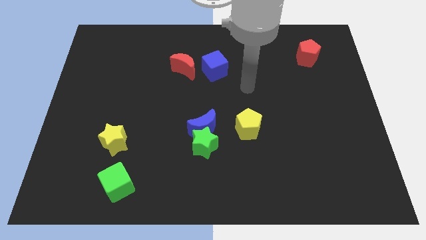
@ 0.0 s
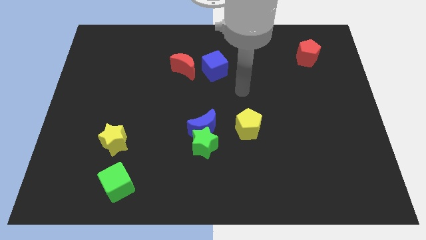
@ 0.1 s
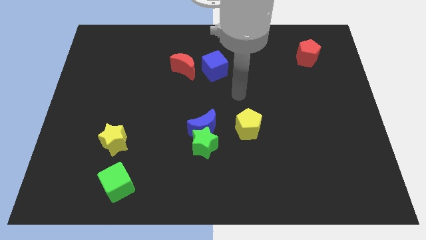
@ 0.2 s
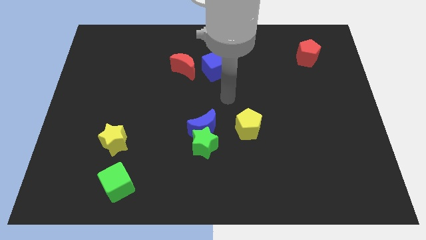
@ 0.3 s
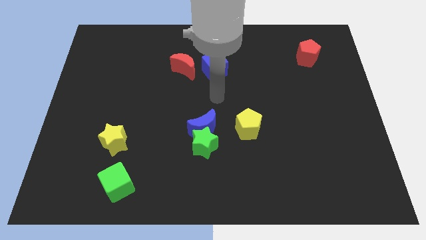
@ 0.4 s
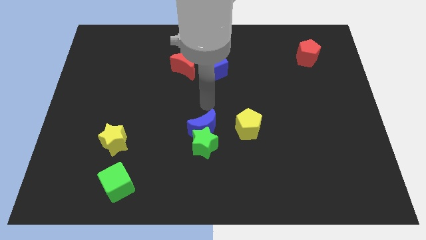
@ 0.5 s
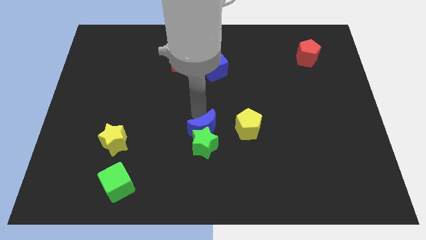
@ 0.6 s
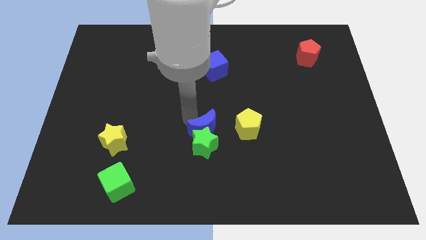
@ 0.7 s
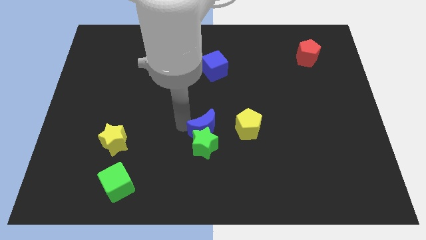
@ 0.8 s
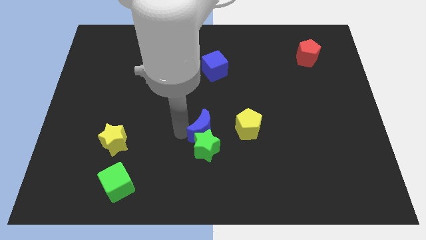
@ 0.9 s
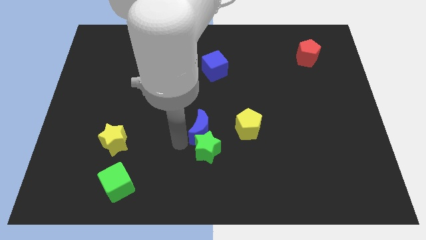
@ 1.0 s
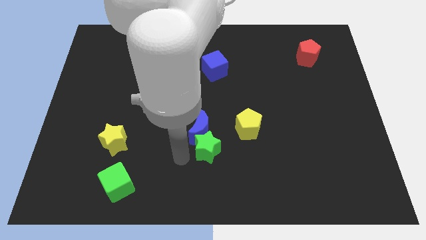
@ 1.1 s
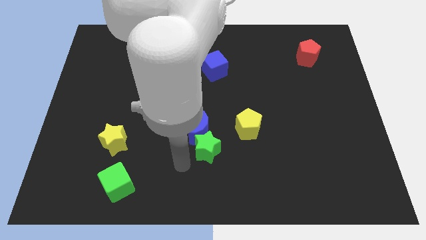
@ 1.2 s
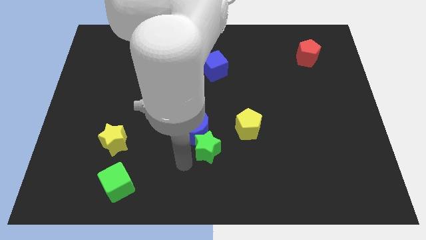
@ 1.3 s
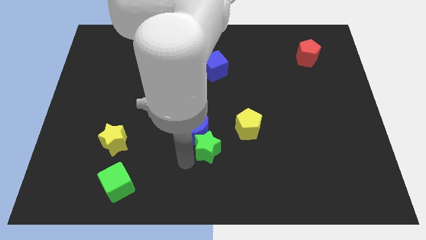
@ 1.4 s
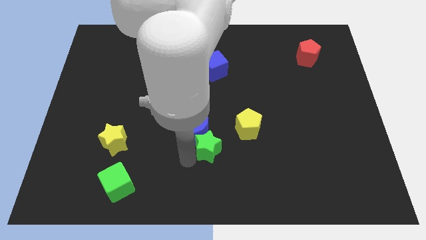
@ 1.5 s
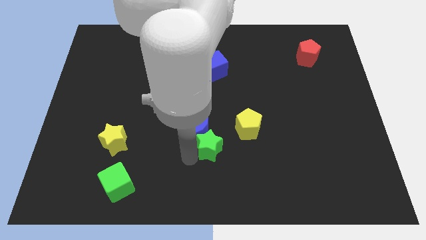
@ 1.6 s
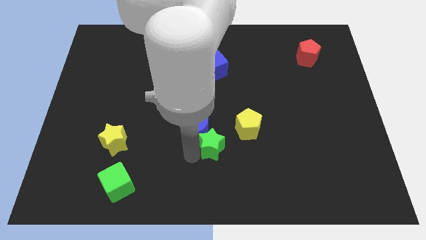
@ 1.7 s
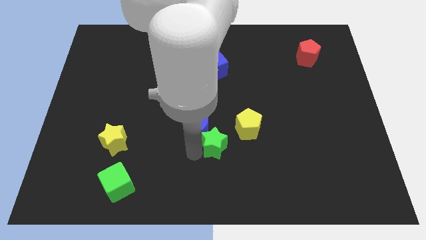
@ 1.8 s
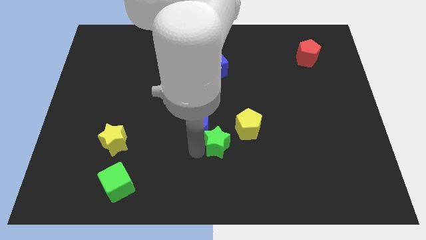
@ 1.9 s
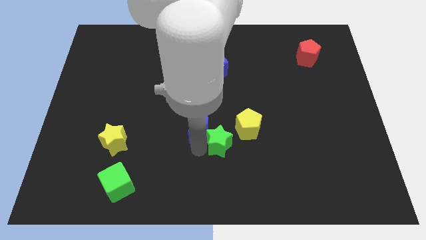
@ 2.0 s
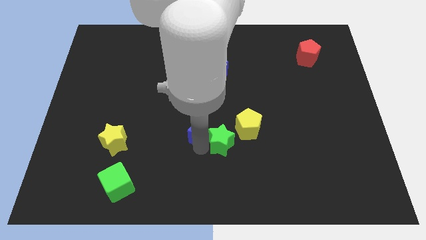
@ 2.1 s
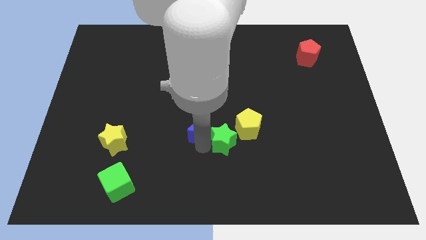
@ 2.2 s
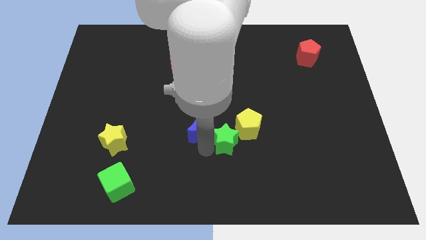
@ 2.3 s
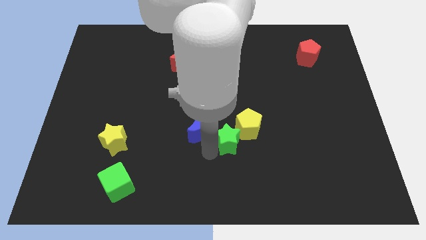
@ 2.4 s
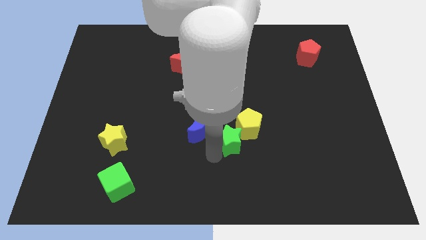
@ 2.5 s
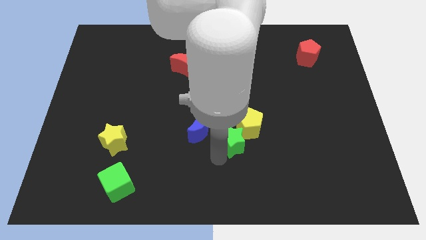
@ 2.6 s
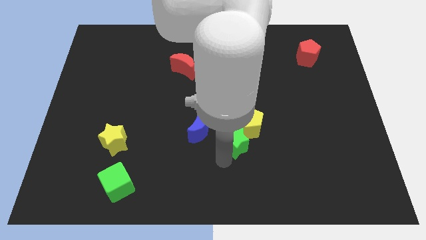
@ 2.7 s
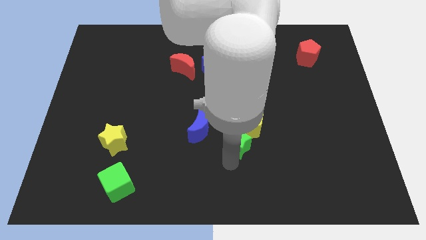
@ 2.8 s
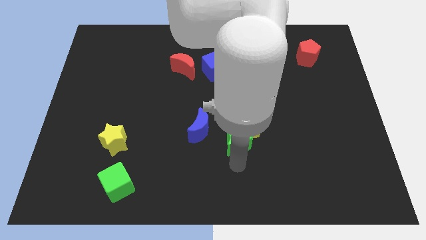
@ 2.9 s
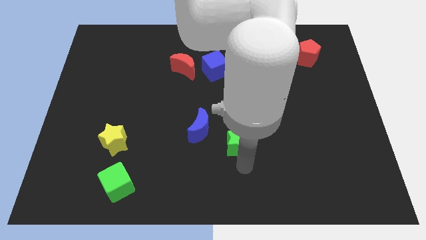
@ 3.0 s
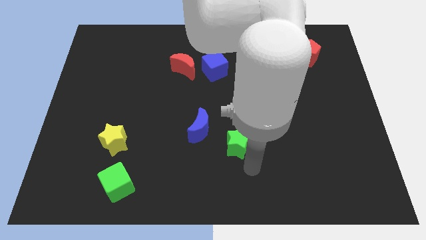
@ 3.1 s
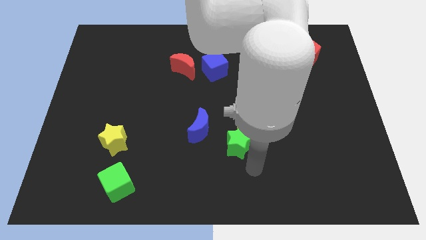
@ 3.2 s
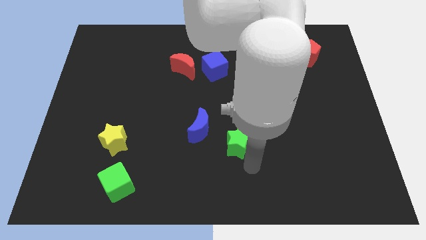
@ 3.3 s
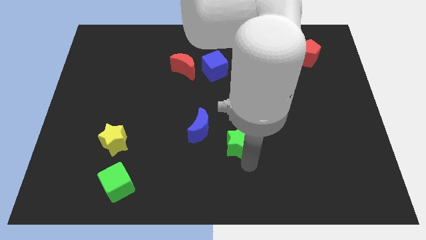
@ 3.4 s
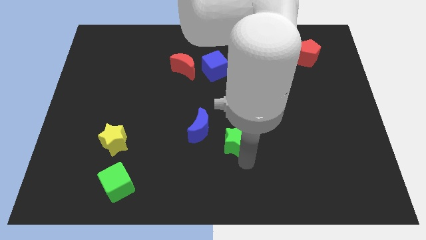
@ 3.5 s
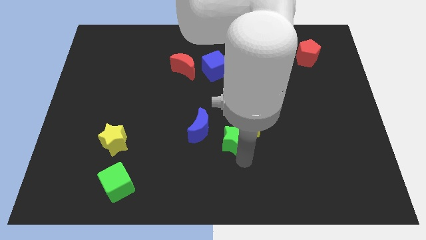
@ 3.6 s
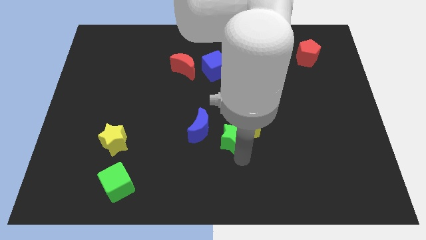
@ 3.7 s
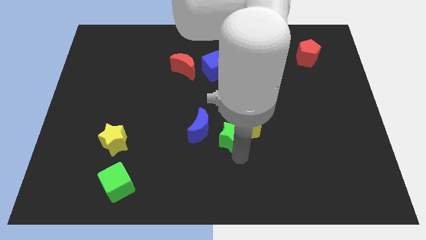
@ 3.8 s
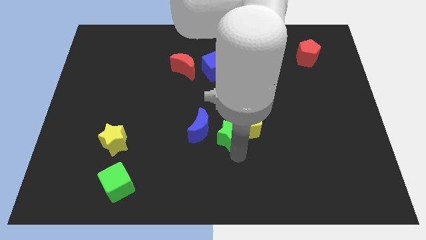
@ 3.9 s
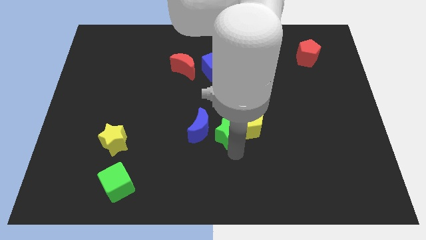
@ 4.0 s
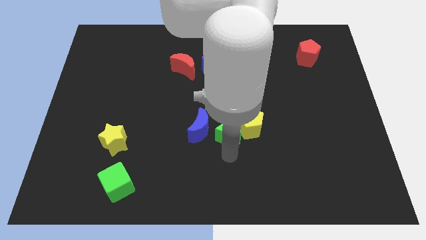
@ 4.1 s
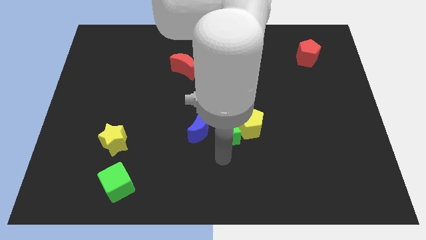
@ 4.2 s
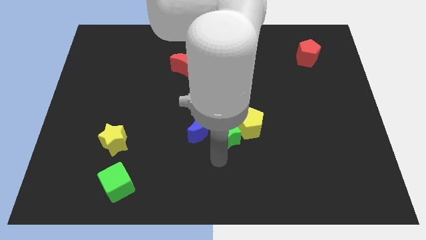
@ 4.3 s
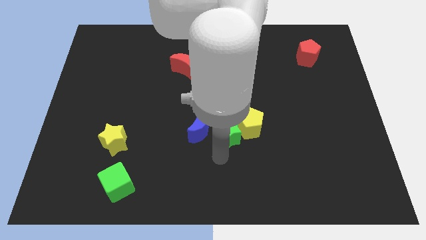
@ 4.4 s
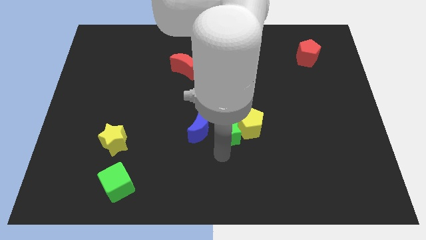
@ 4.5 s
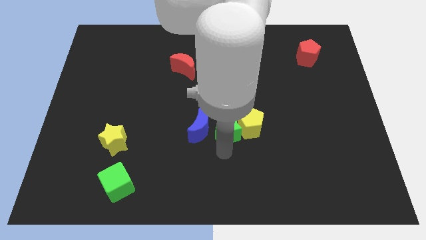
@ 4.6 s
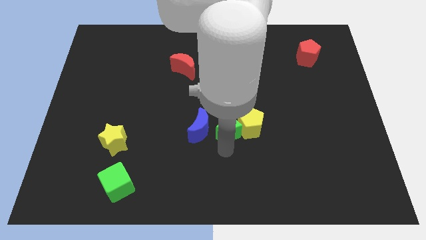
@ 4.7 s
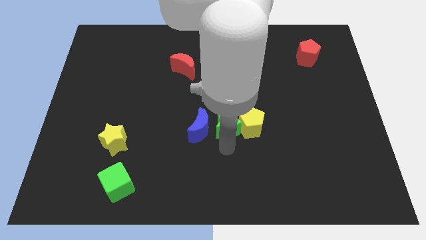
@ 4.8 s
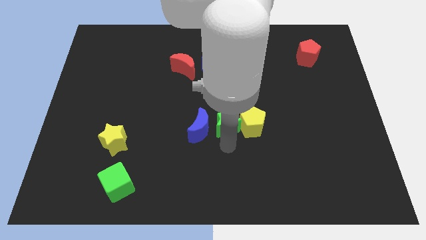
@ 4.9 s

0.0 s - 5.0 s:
slightly slide the green star upwards and right

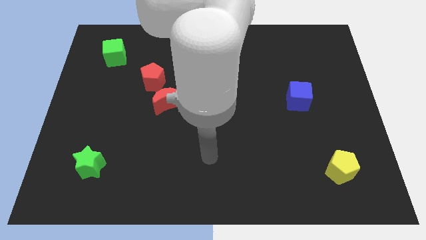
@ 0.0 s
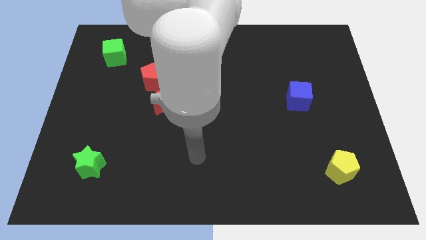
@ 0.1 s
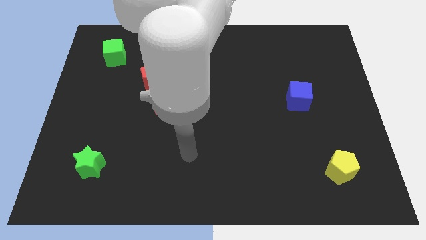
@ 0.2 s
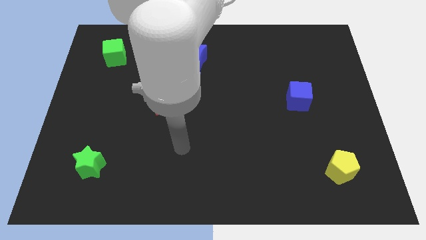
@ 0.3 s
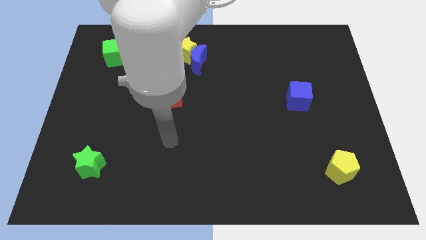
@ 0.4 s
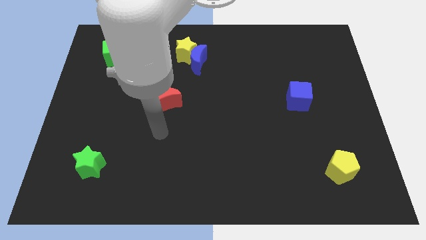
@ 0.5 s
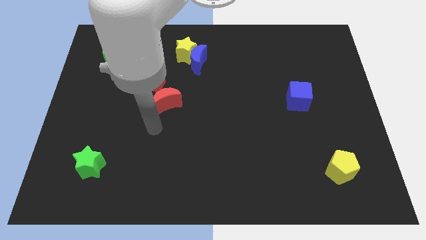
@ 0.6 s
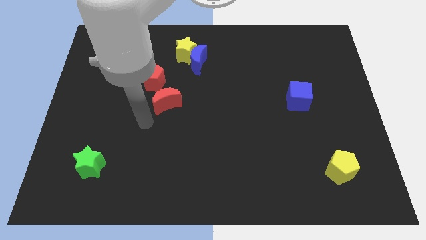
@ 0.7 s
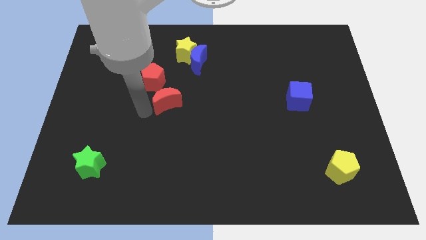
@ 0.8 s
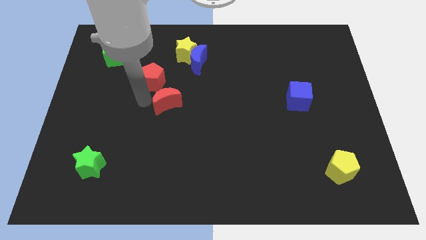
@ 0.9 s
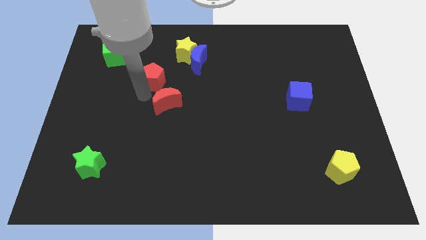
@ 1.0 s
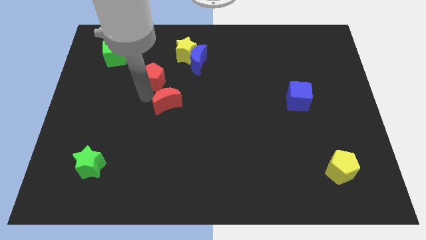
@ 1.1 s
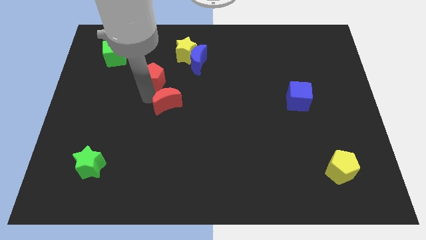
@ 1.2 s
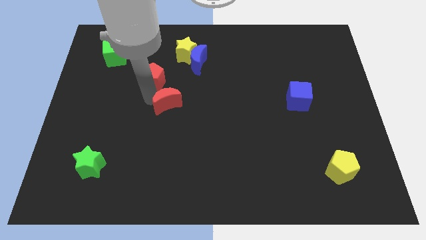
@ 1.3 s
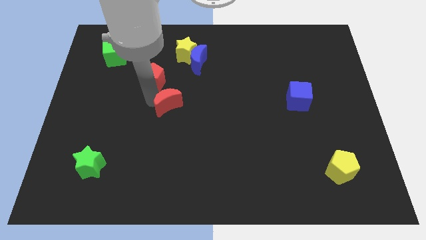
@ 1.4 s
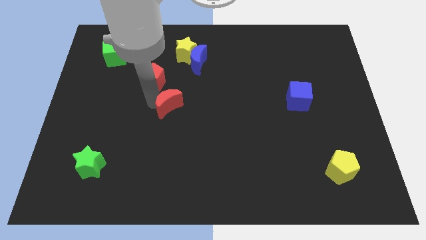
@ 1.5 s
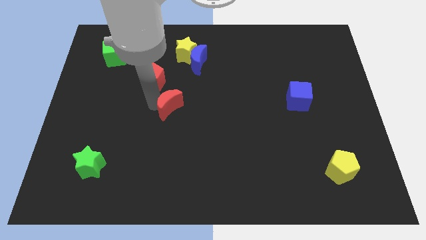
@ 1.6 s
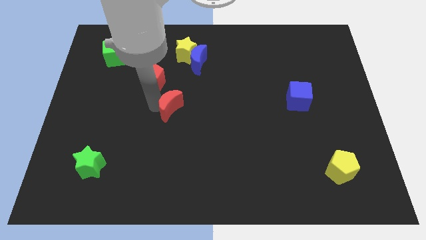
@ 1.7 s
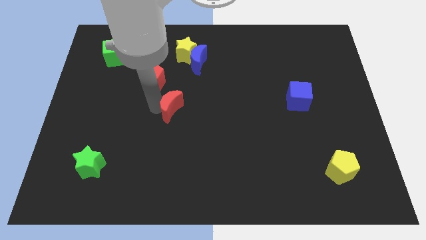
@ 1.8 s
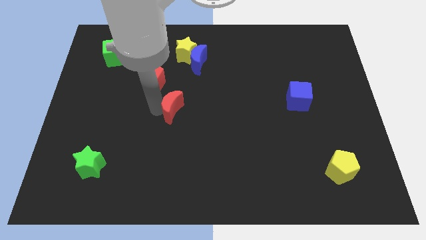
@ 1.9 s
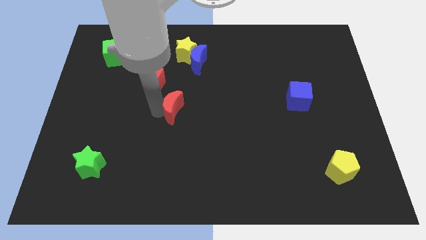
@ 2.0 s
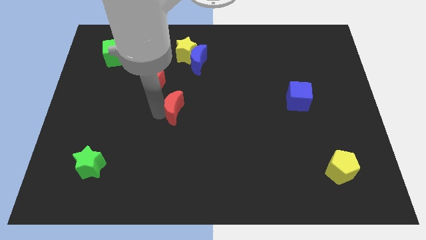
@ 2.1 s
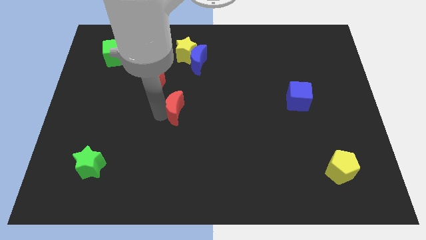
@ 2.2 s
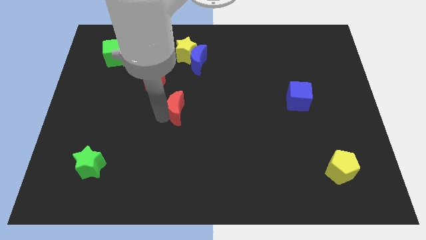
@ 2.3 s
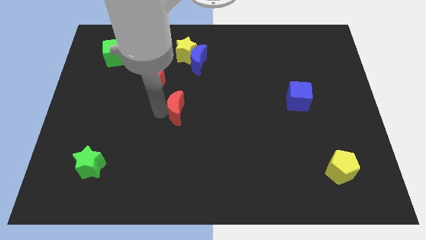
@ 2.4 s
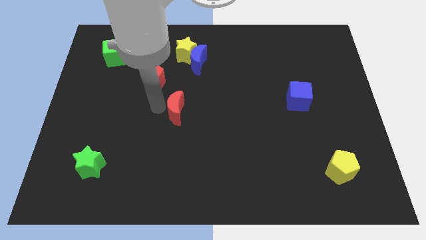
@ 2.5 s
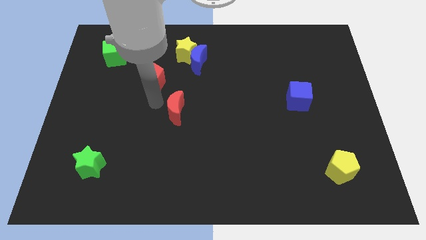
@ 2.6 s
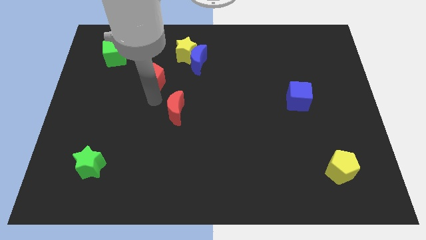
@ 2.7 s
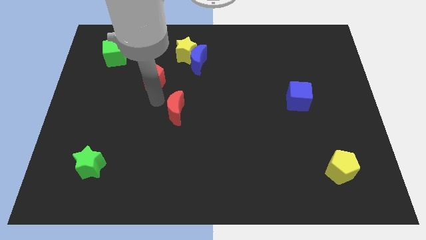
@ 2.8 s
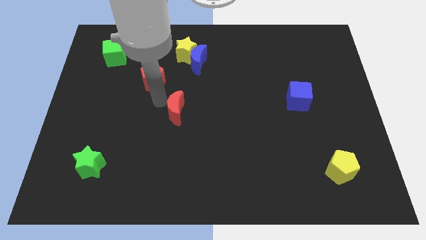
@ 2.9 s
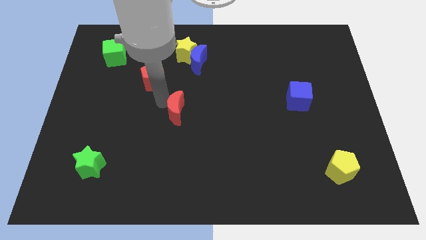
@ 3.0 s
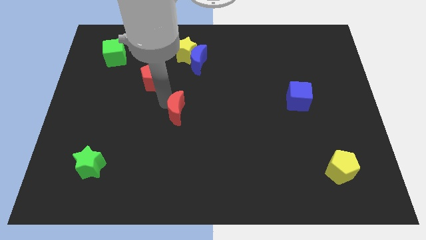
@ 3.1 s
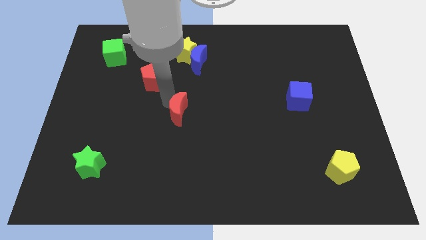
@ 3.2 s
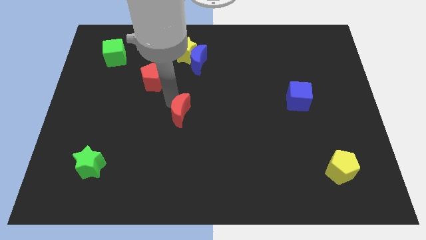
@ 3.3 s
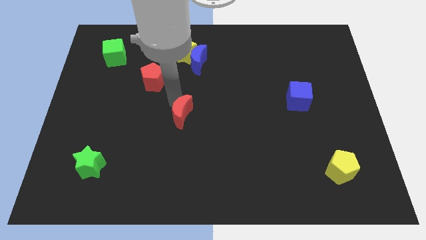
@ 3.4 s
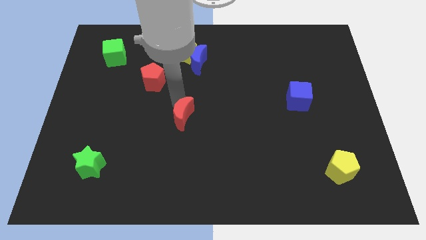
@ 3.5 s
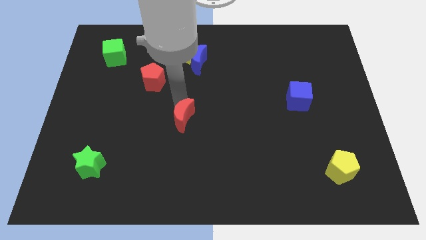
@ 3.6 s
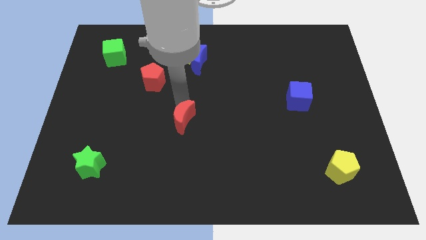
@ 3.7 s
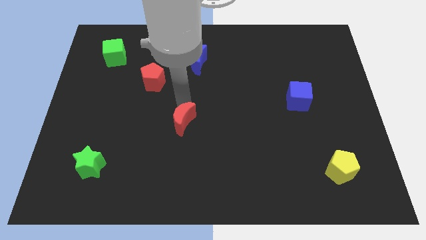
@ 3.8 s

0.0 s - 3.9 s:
push the red moon down and to the right diagonally a little bit
